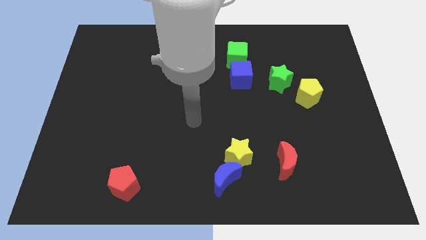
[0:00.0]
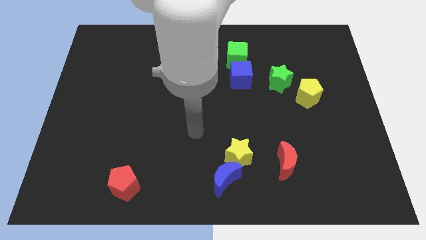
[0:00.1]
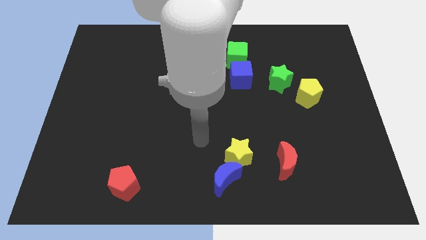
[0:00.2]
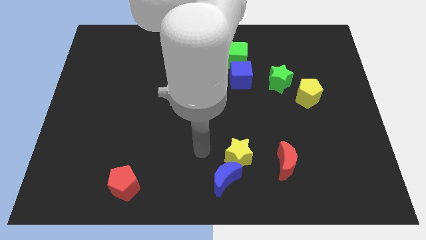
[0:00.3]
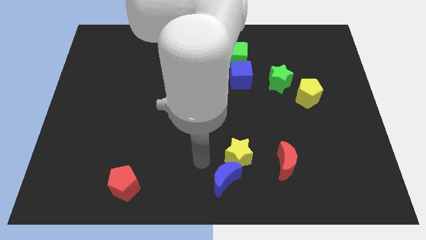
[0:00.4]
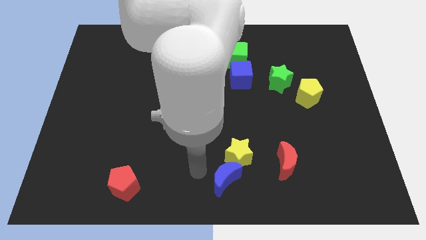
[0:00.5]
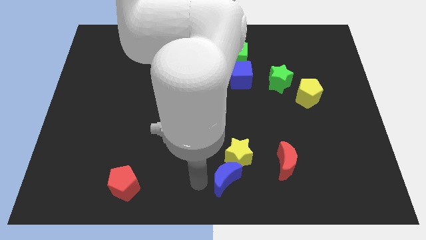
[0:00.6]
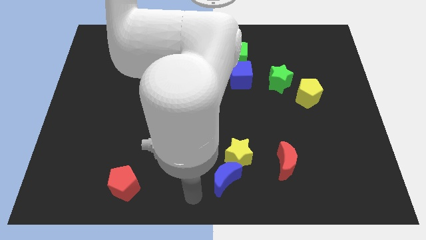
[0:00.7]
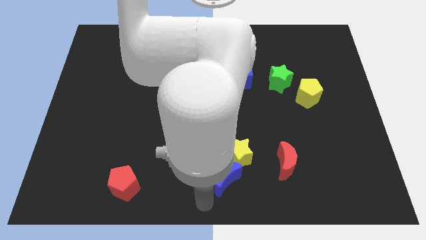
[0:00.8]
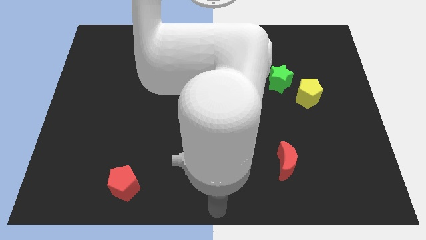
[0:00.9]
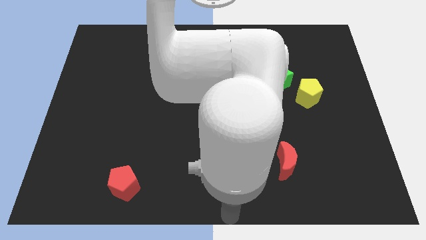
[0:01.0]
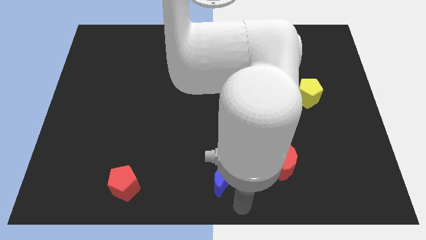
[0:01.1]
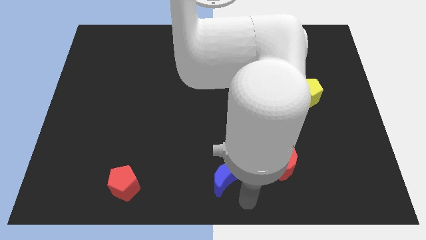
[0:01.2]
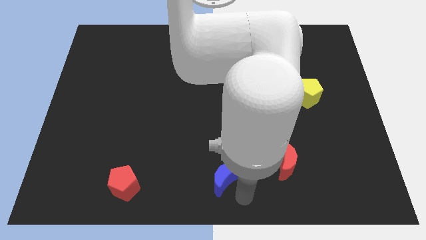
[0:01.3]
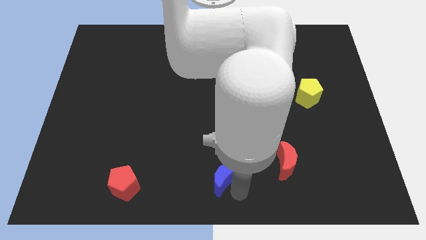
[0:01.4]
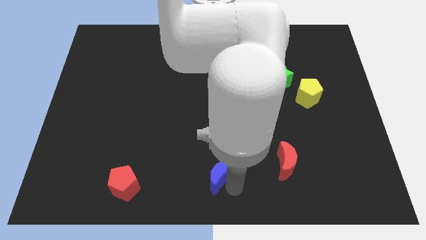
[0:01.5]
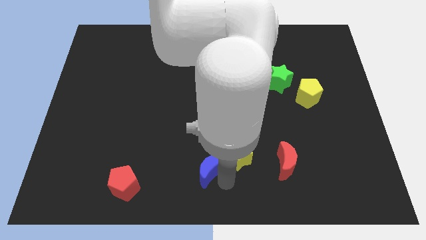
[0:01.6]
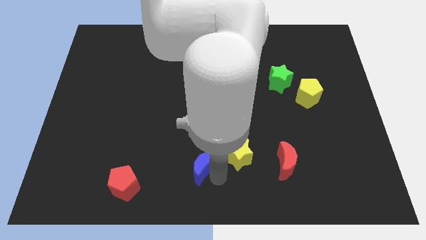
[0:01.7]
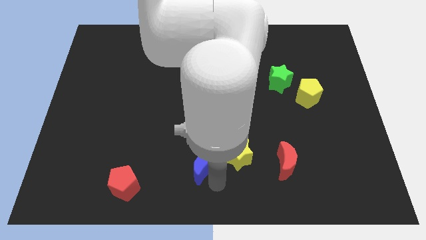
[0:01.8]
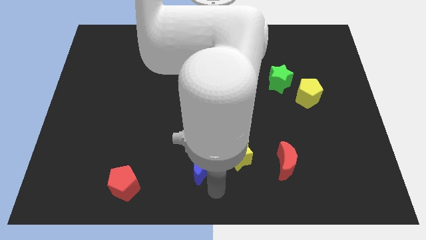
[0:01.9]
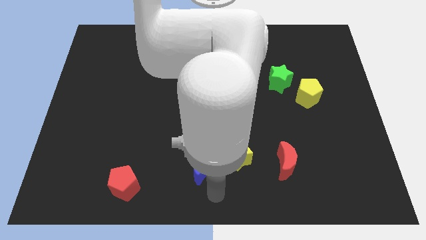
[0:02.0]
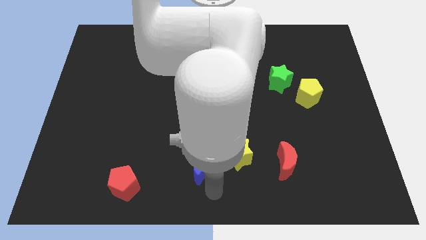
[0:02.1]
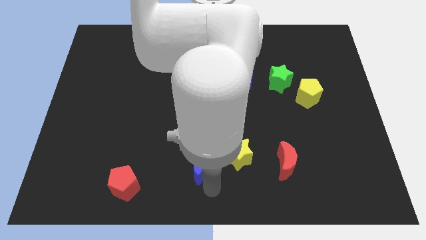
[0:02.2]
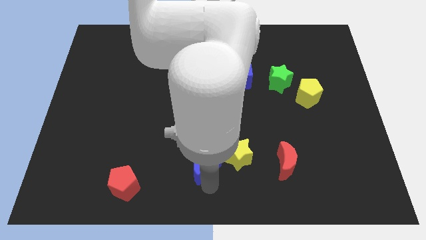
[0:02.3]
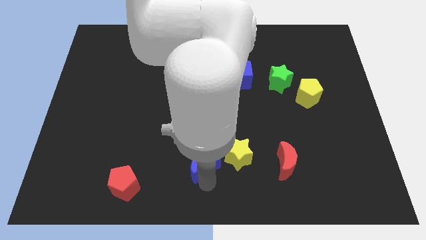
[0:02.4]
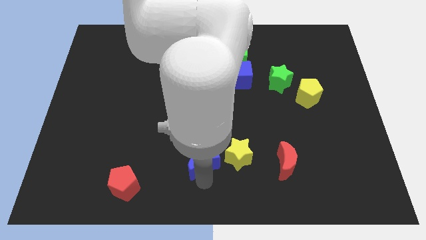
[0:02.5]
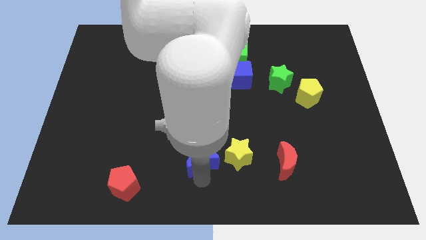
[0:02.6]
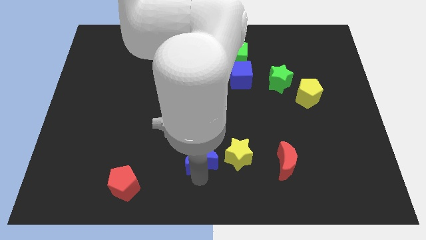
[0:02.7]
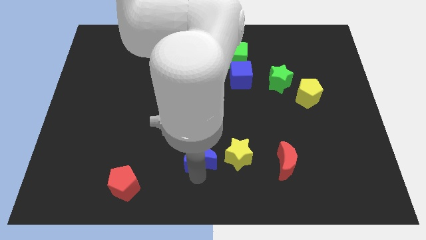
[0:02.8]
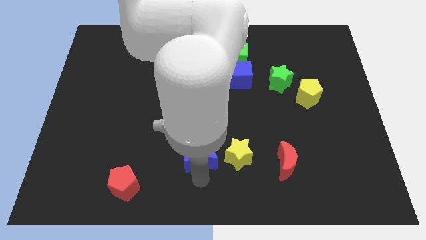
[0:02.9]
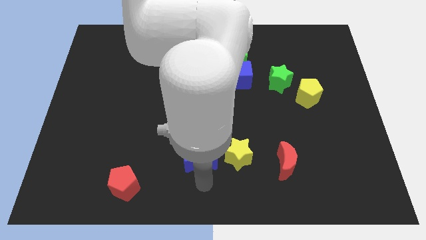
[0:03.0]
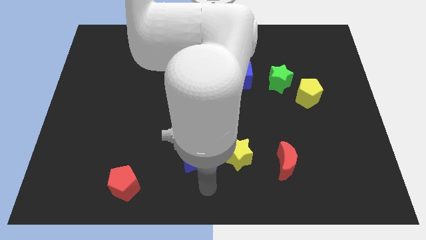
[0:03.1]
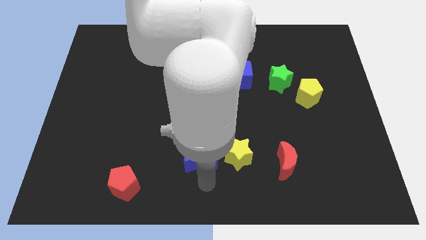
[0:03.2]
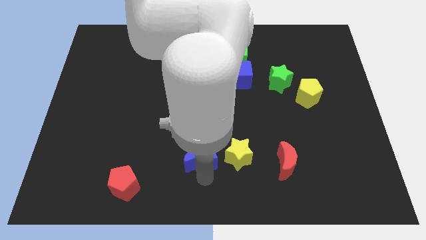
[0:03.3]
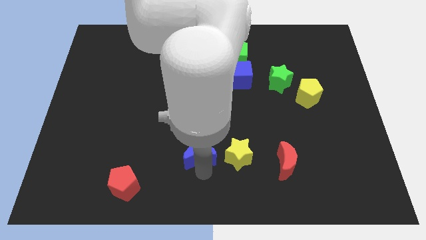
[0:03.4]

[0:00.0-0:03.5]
move the blue moon diagonally upwards and to the left a little bit

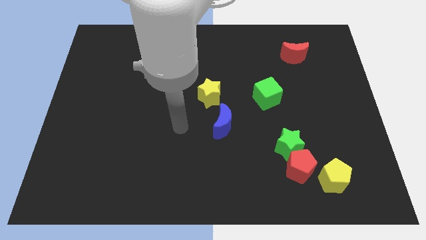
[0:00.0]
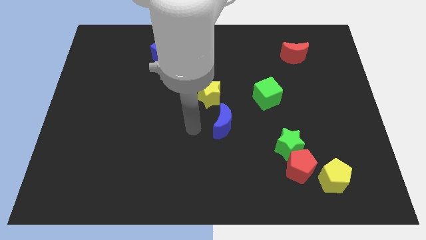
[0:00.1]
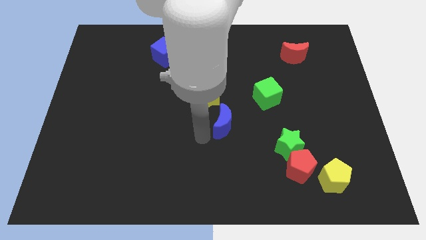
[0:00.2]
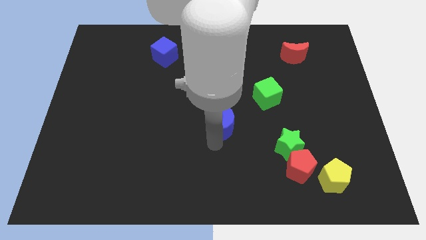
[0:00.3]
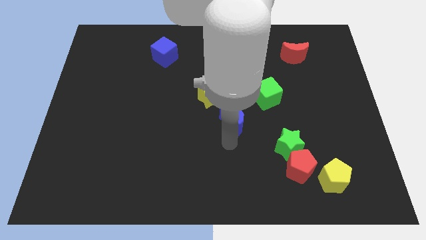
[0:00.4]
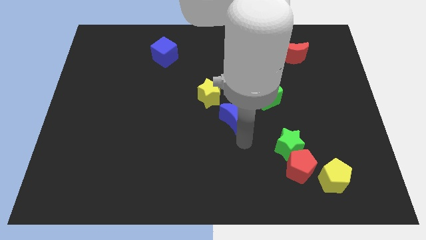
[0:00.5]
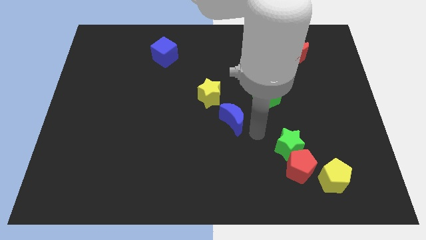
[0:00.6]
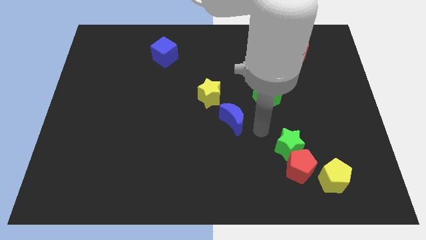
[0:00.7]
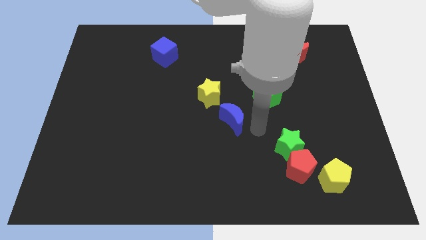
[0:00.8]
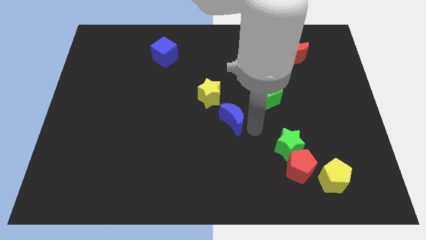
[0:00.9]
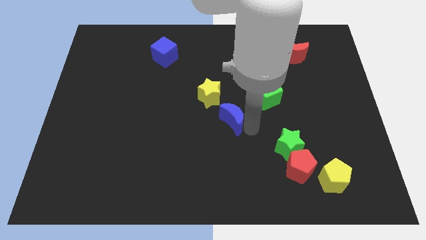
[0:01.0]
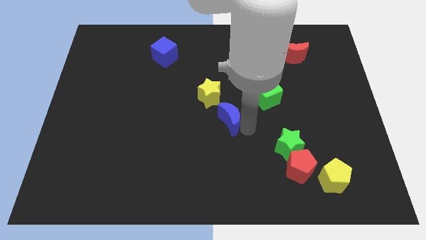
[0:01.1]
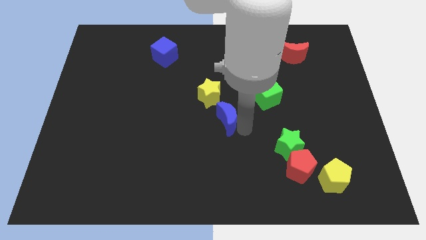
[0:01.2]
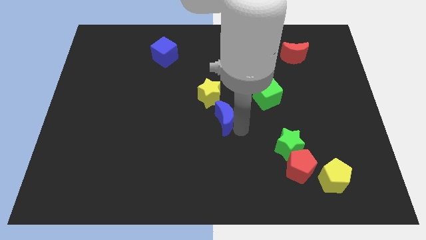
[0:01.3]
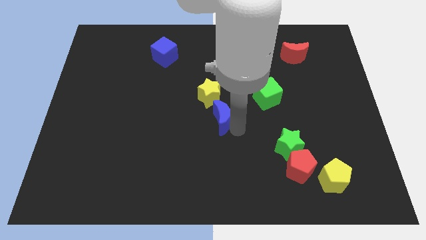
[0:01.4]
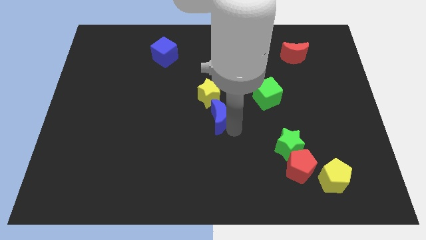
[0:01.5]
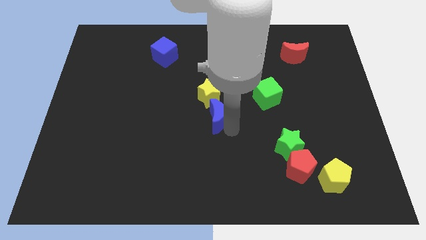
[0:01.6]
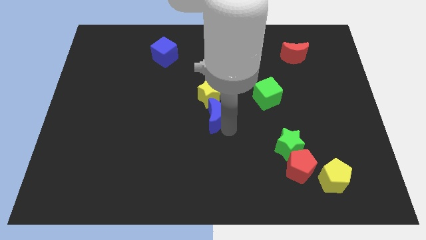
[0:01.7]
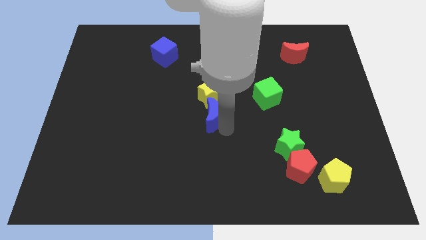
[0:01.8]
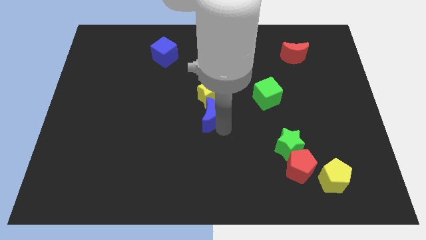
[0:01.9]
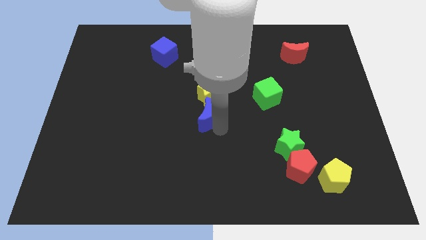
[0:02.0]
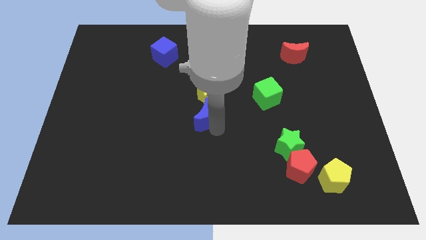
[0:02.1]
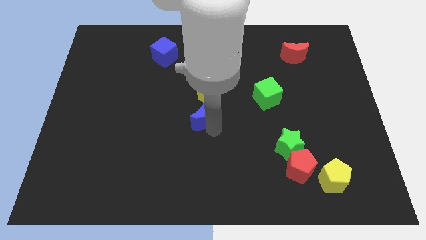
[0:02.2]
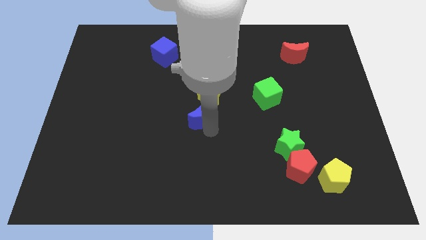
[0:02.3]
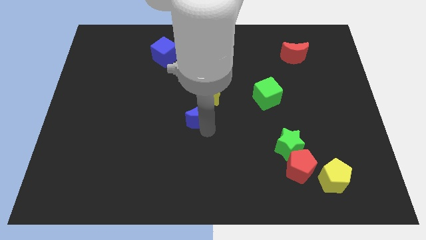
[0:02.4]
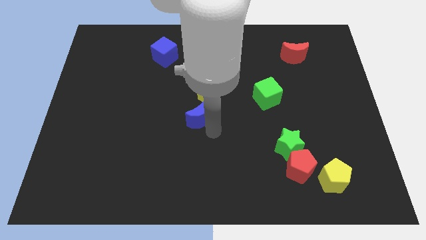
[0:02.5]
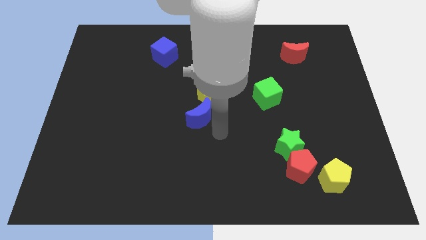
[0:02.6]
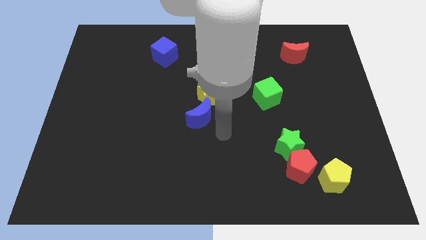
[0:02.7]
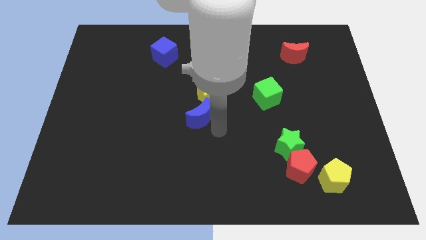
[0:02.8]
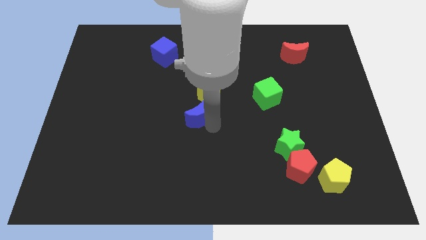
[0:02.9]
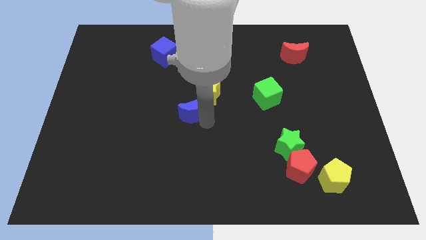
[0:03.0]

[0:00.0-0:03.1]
slightly push the blue moon upwards and to the left diagonally

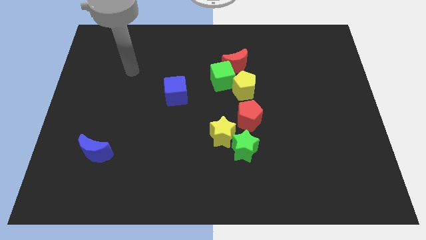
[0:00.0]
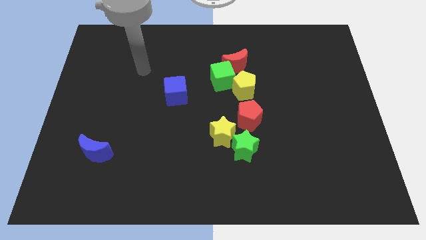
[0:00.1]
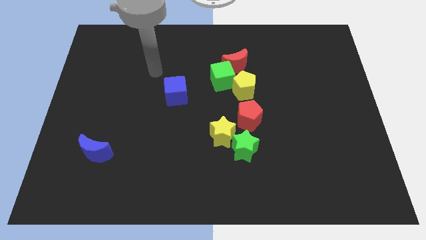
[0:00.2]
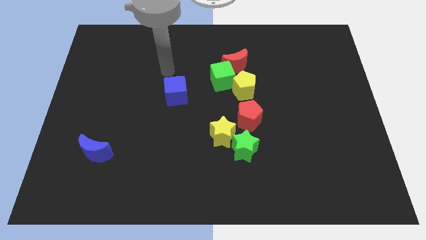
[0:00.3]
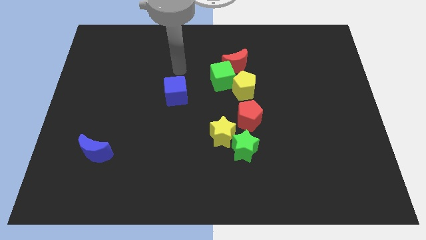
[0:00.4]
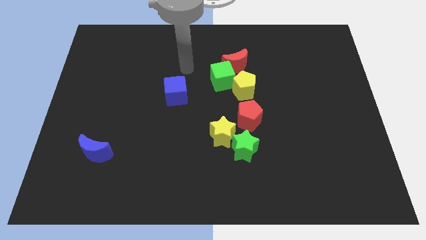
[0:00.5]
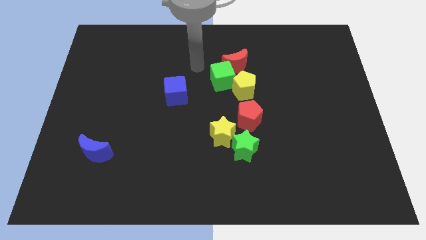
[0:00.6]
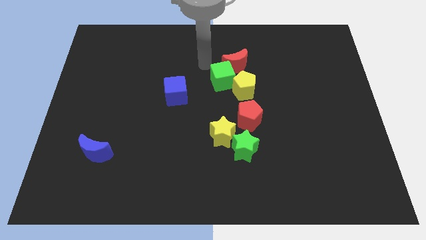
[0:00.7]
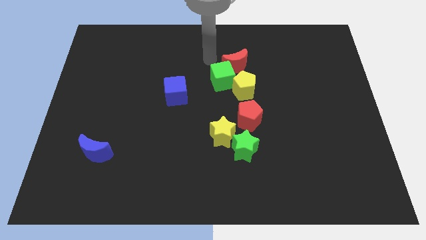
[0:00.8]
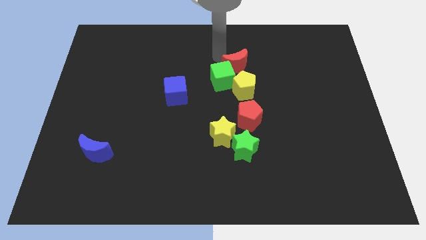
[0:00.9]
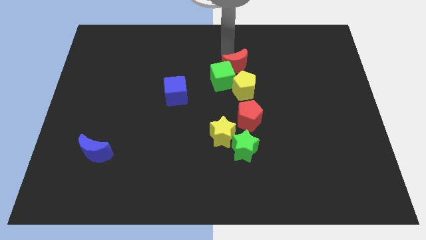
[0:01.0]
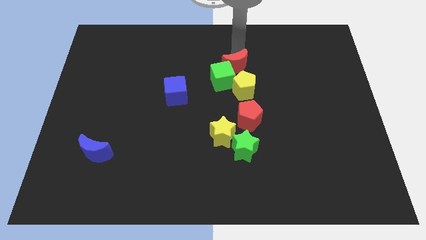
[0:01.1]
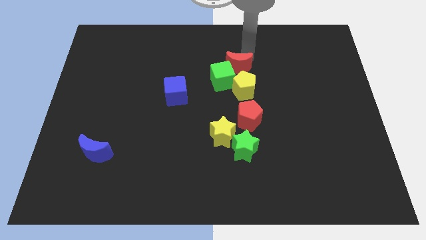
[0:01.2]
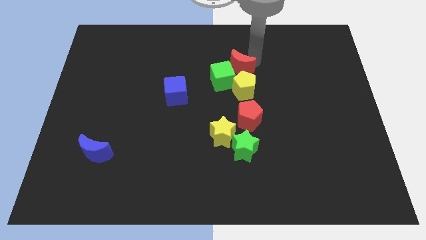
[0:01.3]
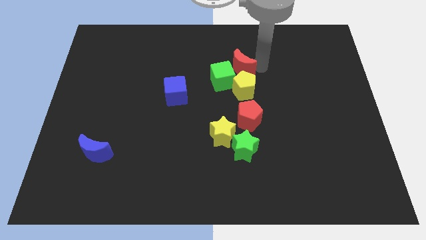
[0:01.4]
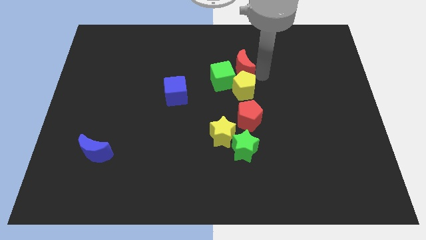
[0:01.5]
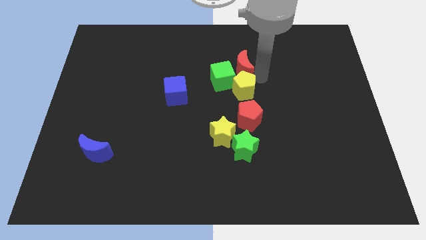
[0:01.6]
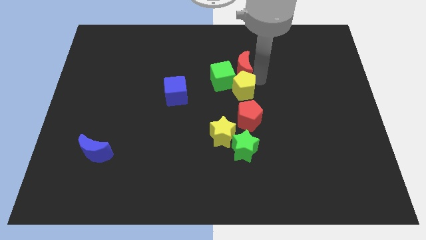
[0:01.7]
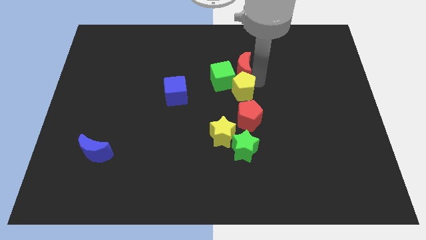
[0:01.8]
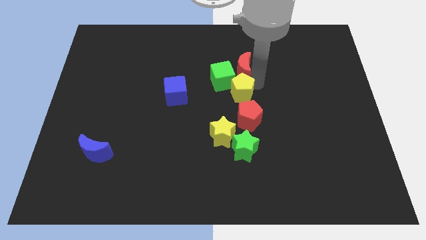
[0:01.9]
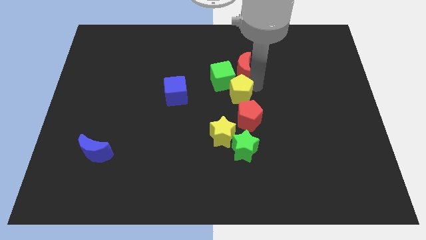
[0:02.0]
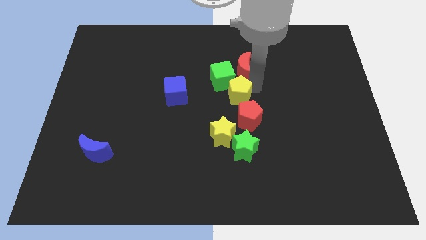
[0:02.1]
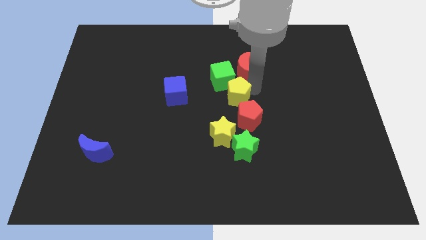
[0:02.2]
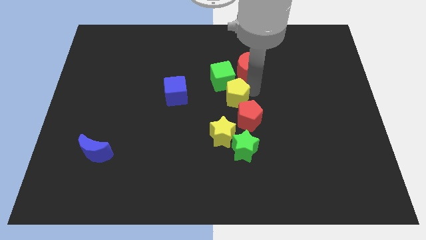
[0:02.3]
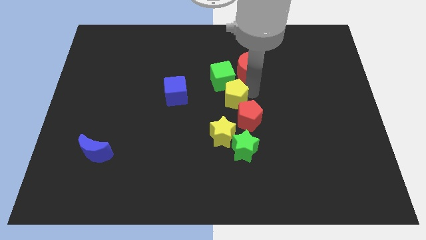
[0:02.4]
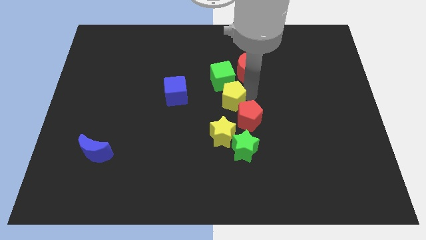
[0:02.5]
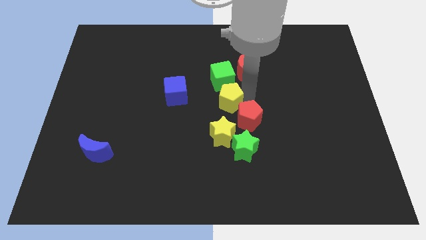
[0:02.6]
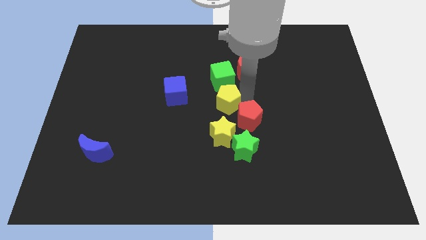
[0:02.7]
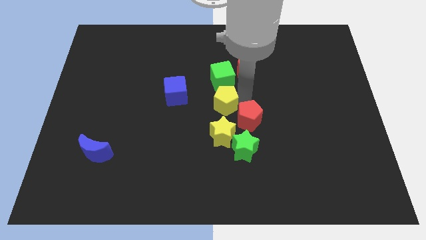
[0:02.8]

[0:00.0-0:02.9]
slide the yellow pentagon a little diagonally downwards and to the left
